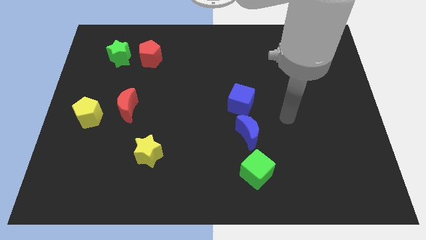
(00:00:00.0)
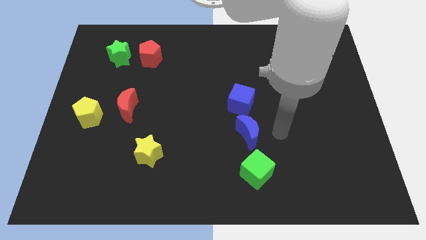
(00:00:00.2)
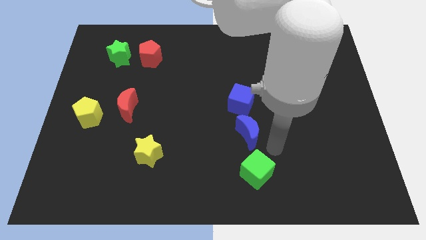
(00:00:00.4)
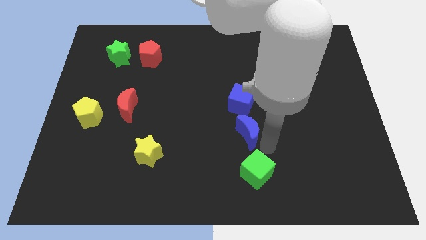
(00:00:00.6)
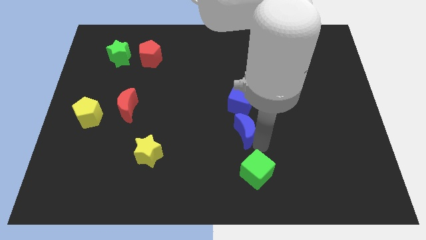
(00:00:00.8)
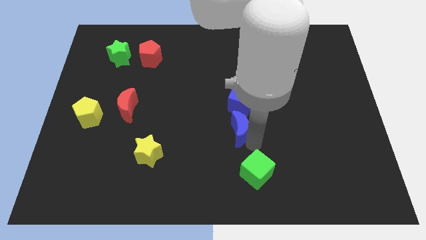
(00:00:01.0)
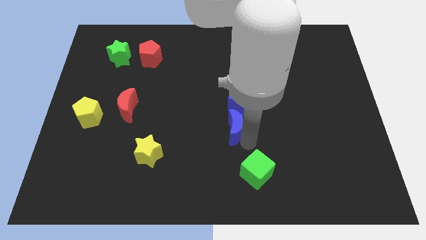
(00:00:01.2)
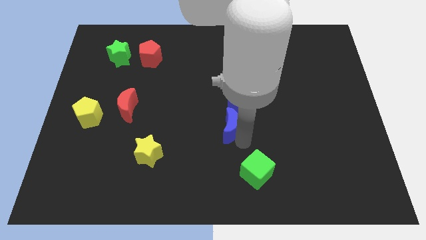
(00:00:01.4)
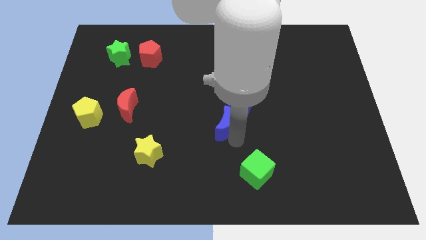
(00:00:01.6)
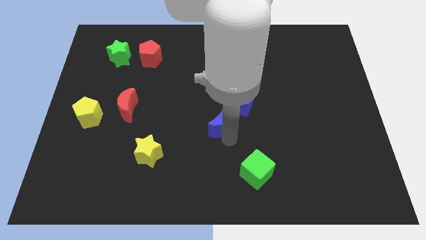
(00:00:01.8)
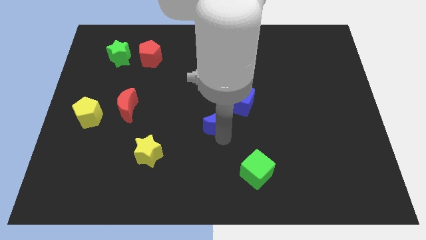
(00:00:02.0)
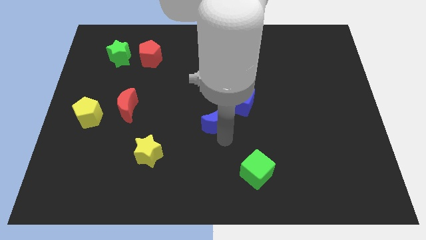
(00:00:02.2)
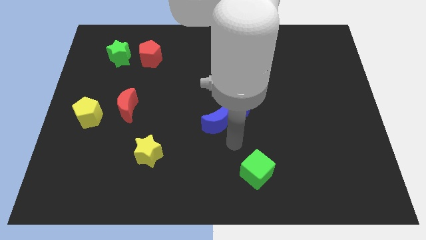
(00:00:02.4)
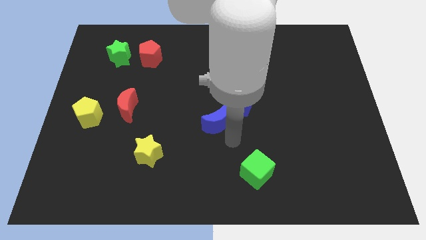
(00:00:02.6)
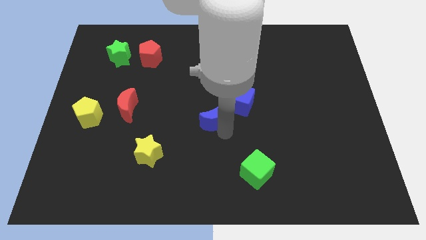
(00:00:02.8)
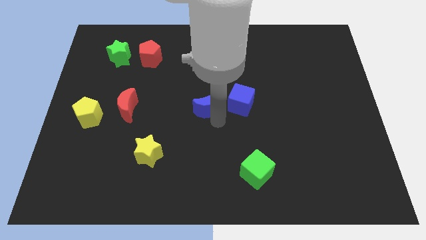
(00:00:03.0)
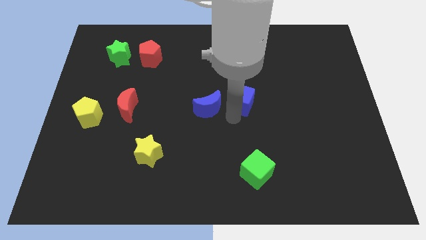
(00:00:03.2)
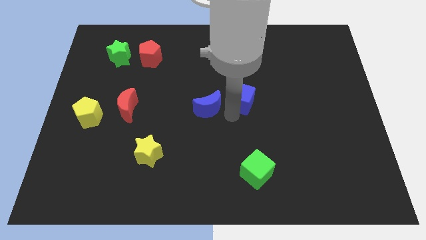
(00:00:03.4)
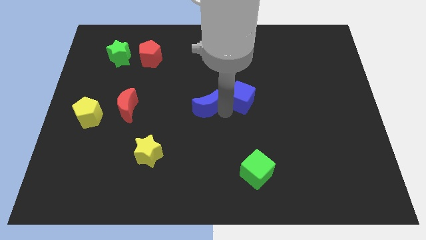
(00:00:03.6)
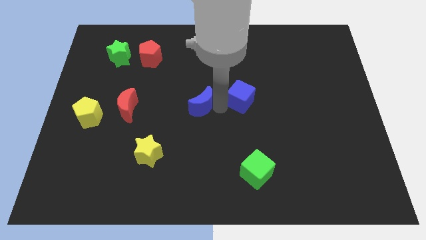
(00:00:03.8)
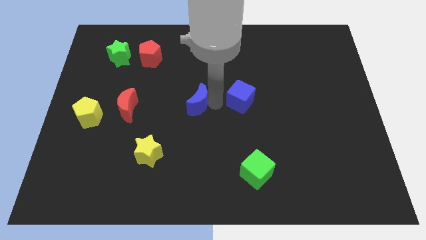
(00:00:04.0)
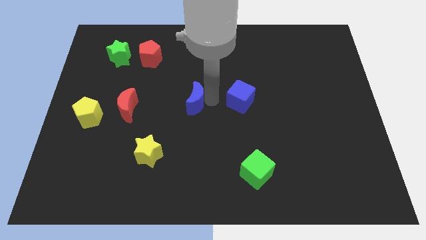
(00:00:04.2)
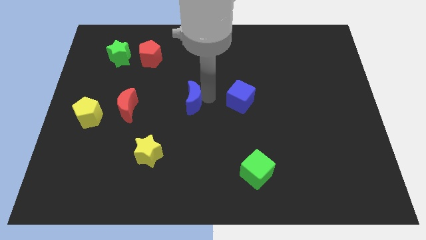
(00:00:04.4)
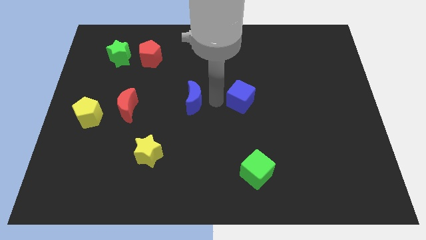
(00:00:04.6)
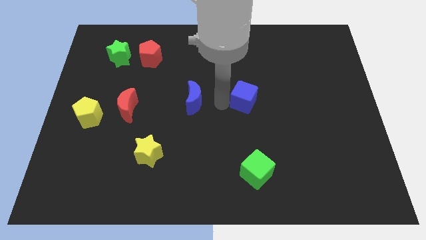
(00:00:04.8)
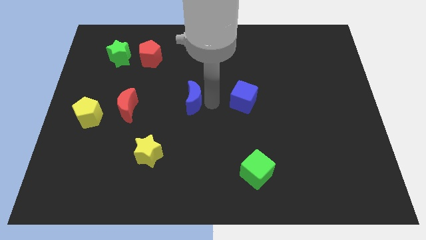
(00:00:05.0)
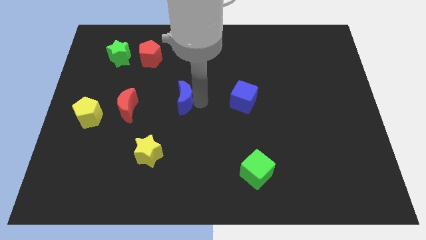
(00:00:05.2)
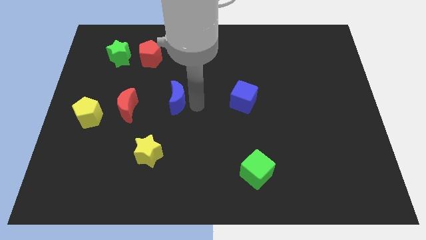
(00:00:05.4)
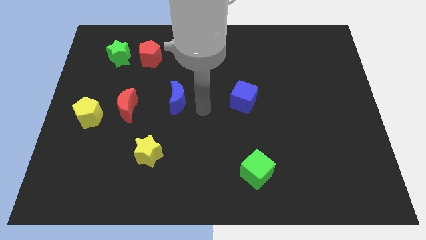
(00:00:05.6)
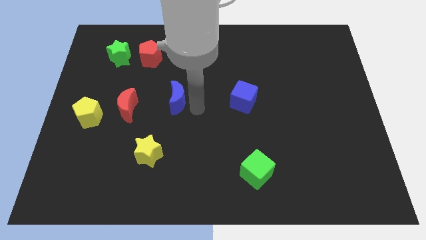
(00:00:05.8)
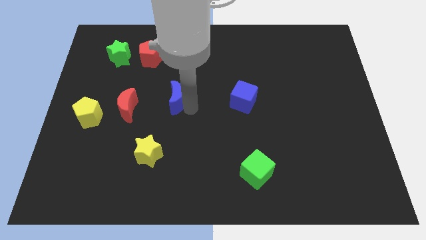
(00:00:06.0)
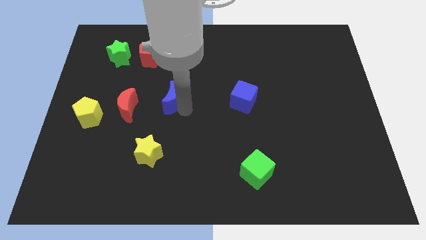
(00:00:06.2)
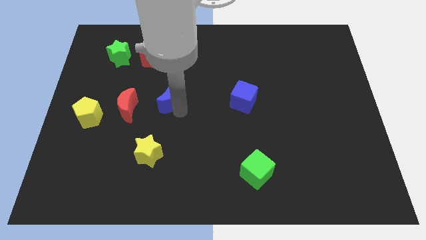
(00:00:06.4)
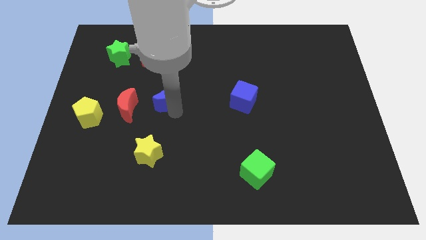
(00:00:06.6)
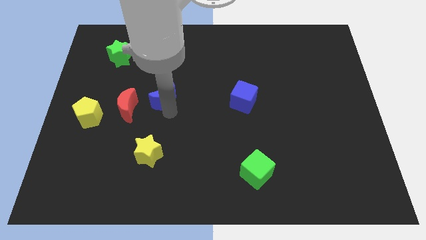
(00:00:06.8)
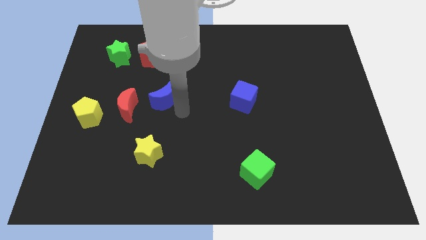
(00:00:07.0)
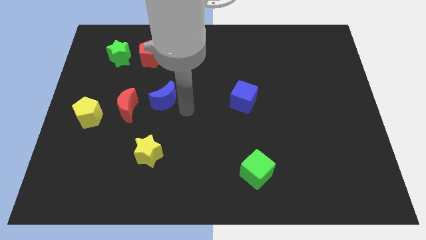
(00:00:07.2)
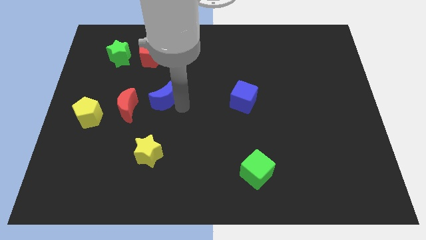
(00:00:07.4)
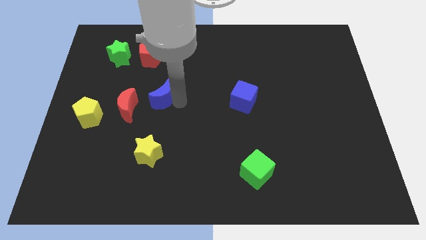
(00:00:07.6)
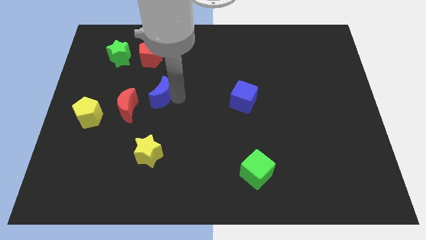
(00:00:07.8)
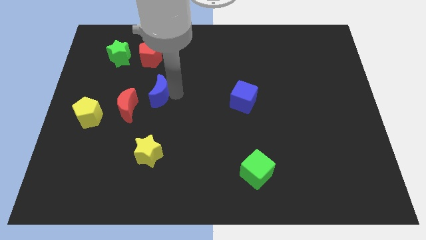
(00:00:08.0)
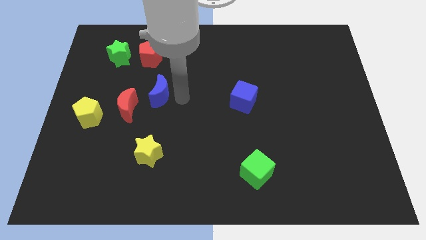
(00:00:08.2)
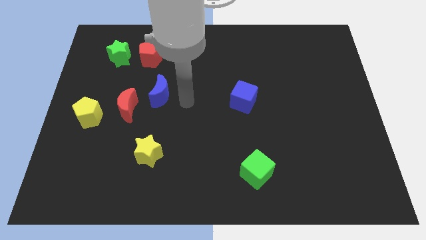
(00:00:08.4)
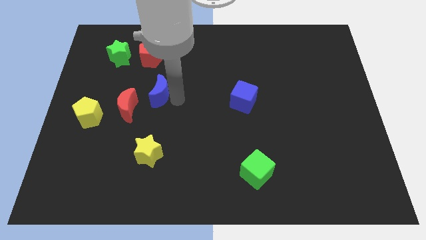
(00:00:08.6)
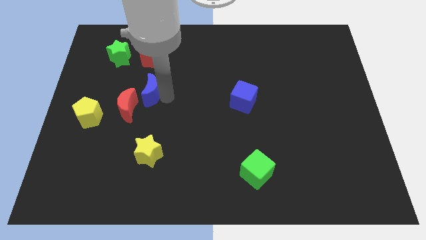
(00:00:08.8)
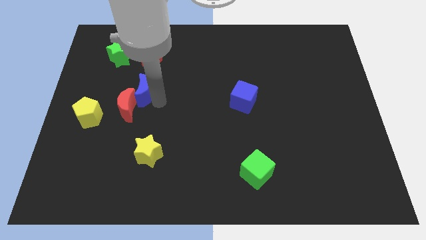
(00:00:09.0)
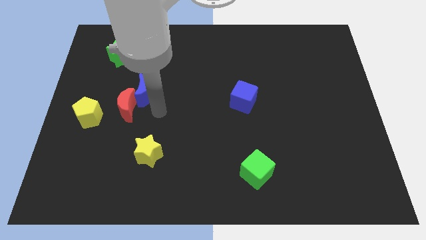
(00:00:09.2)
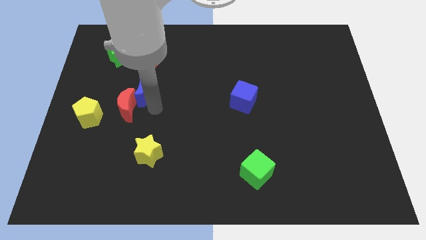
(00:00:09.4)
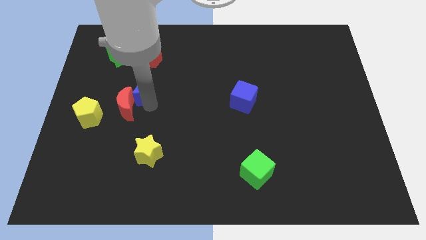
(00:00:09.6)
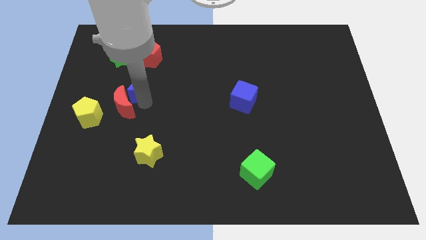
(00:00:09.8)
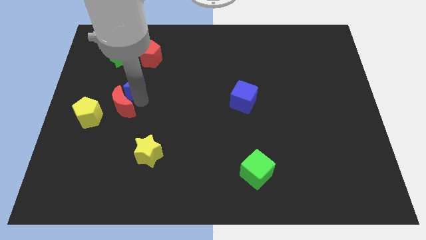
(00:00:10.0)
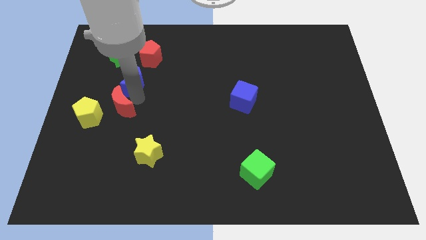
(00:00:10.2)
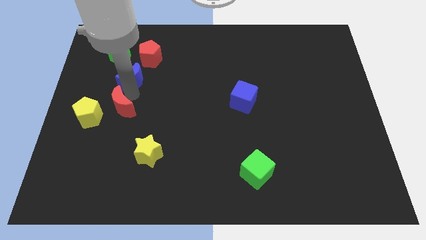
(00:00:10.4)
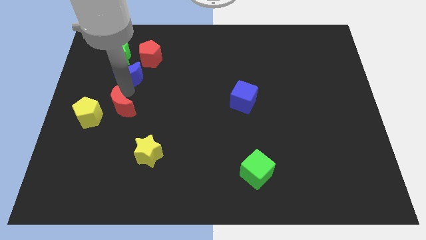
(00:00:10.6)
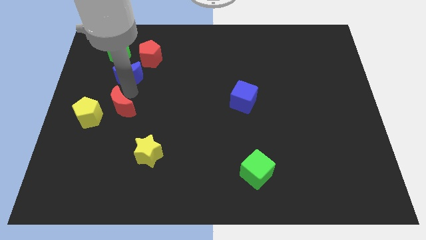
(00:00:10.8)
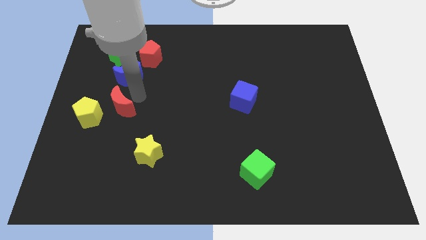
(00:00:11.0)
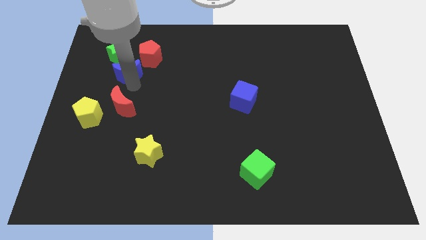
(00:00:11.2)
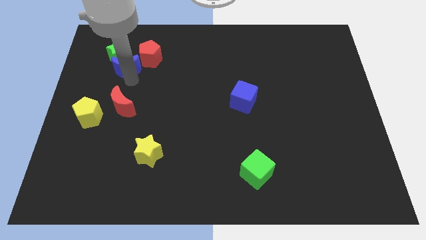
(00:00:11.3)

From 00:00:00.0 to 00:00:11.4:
move the blue moon close to the green star

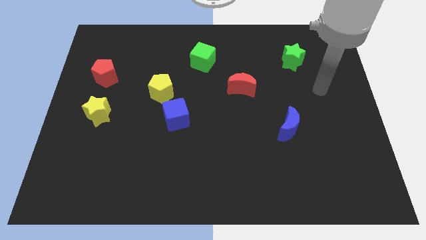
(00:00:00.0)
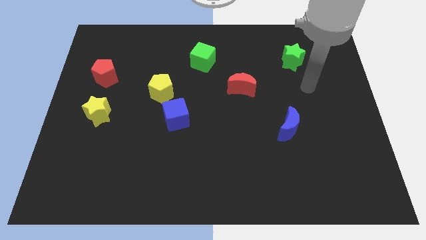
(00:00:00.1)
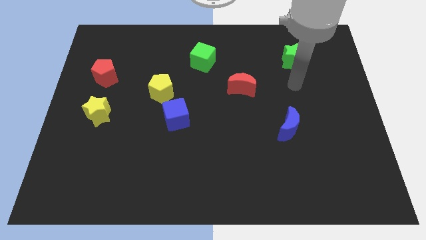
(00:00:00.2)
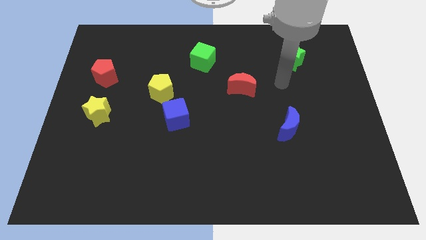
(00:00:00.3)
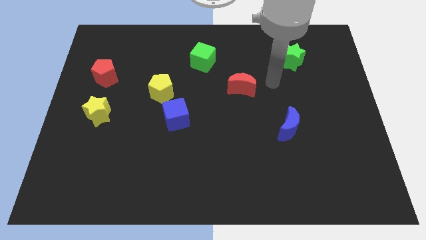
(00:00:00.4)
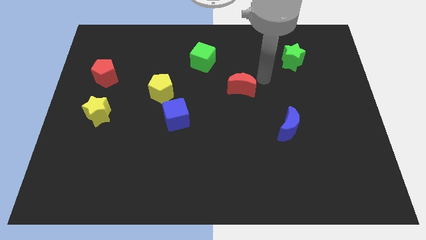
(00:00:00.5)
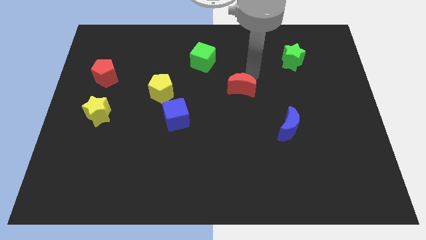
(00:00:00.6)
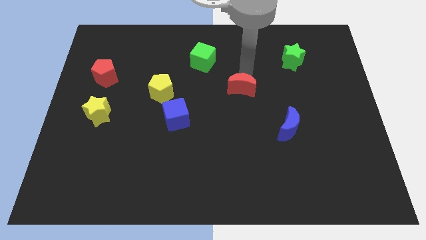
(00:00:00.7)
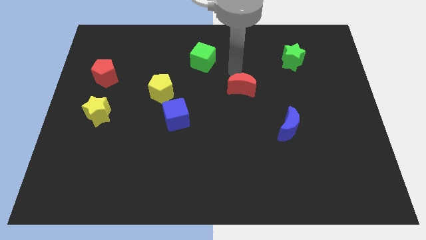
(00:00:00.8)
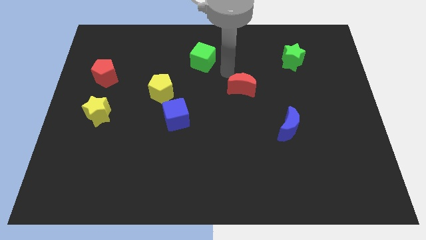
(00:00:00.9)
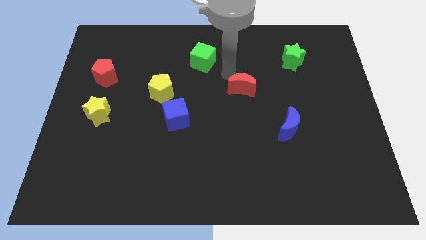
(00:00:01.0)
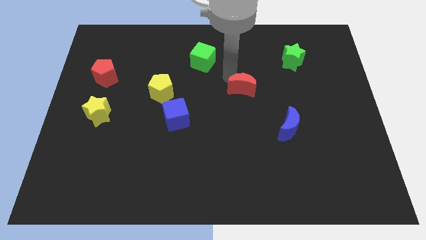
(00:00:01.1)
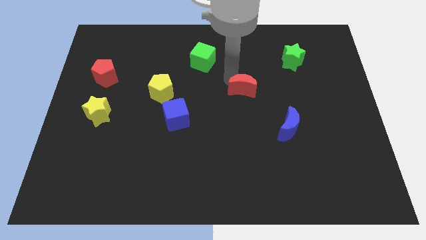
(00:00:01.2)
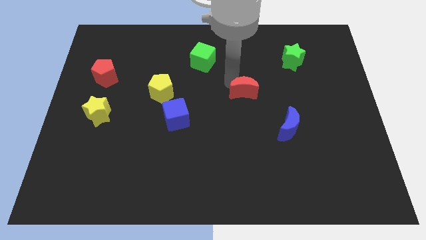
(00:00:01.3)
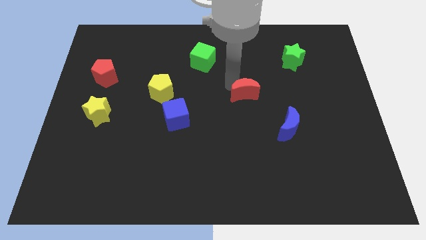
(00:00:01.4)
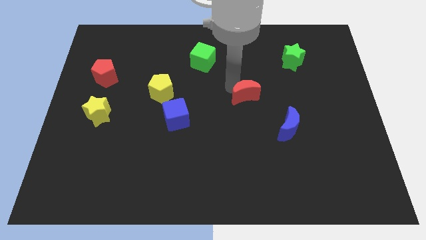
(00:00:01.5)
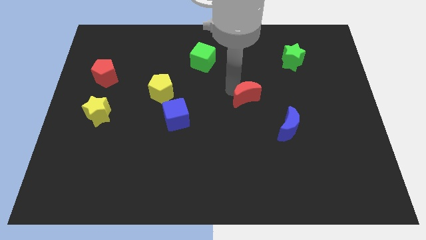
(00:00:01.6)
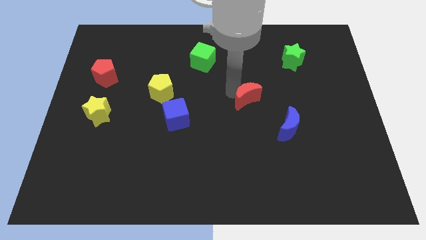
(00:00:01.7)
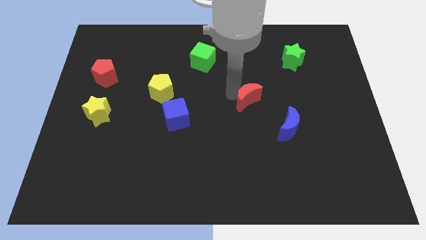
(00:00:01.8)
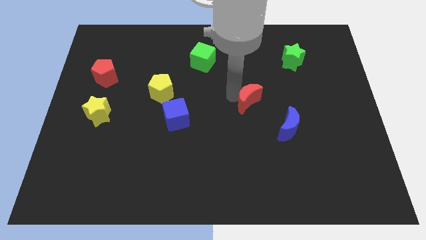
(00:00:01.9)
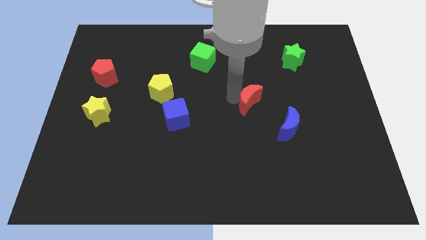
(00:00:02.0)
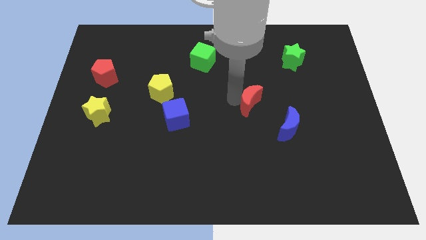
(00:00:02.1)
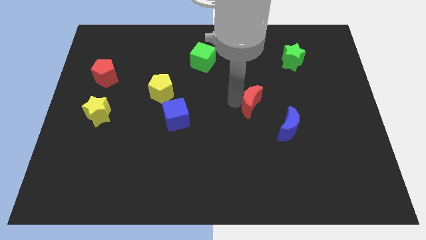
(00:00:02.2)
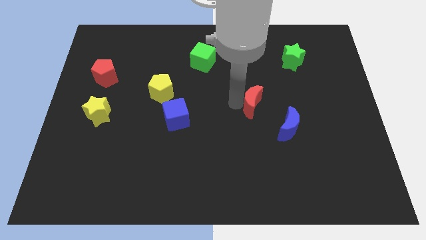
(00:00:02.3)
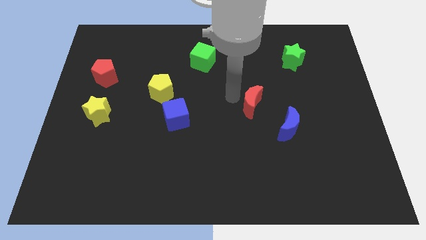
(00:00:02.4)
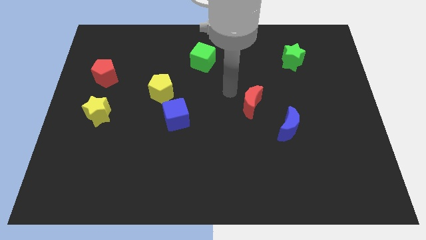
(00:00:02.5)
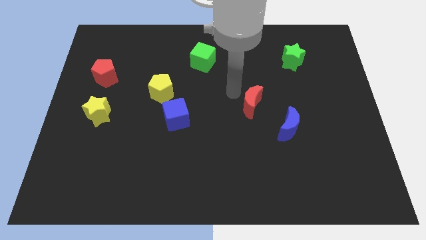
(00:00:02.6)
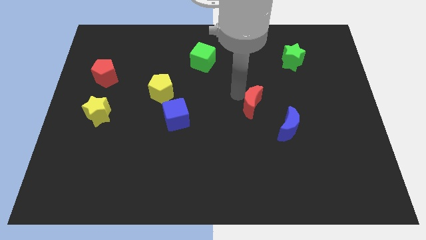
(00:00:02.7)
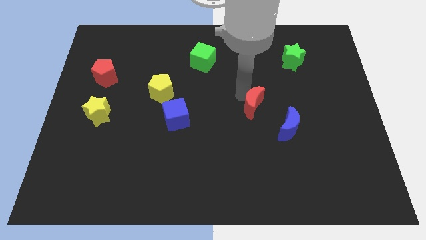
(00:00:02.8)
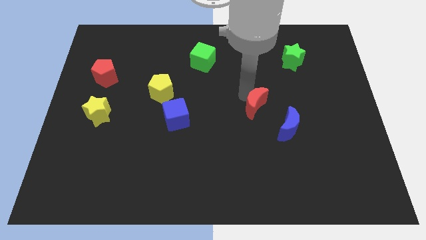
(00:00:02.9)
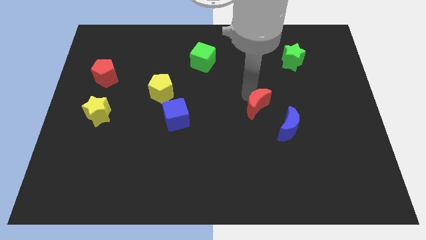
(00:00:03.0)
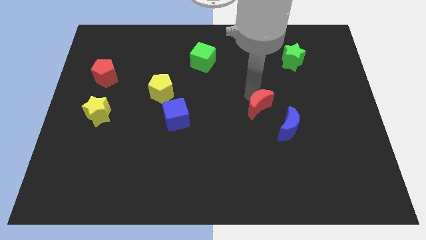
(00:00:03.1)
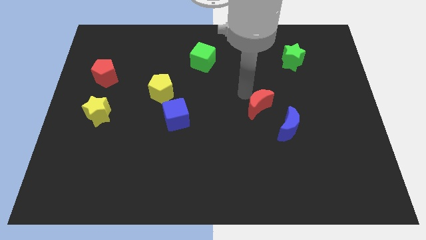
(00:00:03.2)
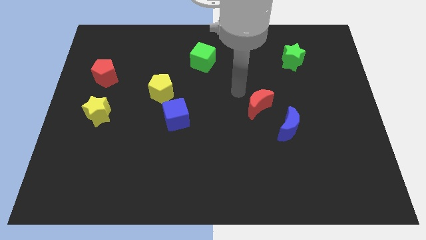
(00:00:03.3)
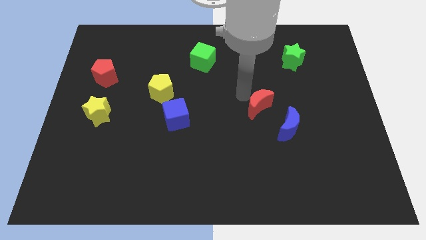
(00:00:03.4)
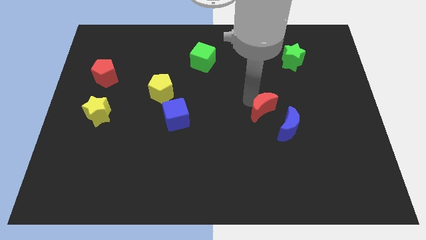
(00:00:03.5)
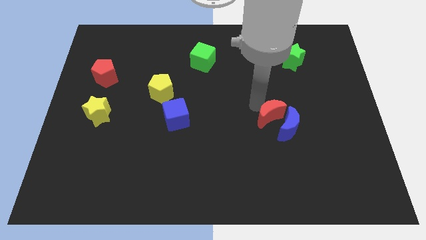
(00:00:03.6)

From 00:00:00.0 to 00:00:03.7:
put the red moon to the blue moon
